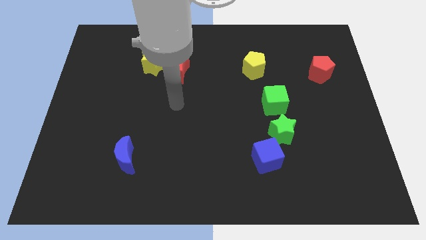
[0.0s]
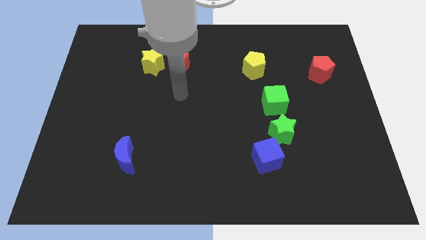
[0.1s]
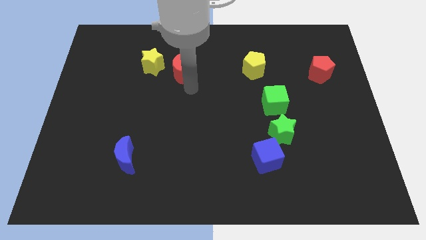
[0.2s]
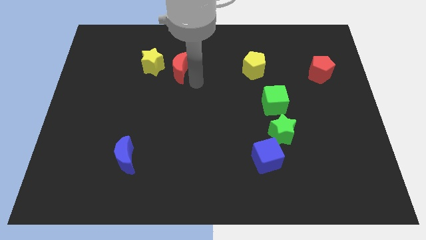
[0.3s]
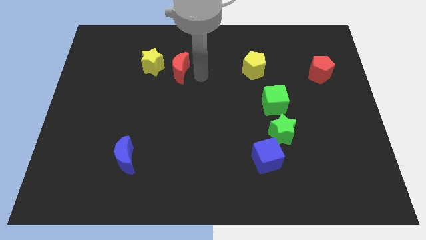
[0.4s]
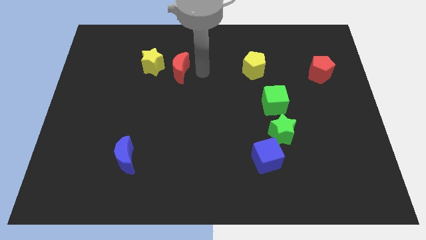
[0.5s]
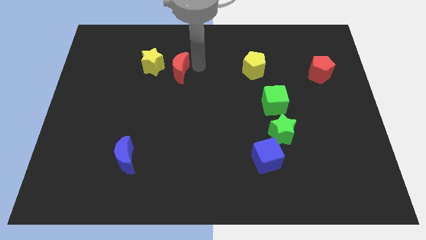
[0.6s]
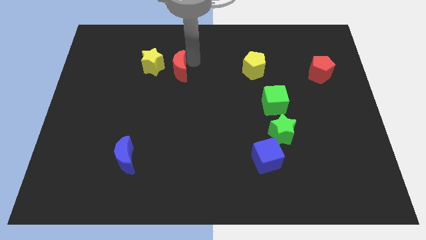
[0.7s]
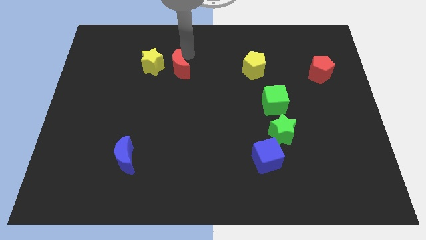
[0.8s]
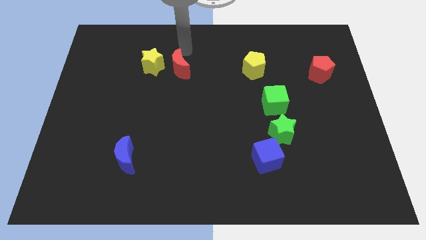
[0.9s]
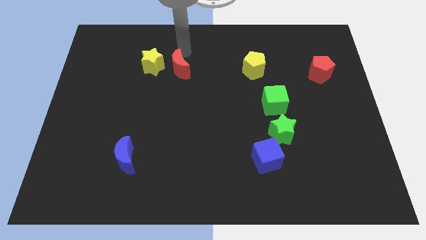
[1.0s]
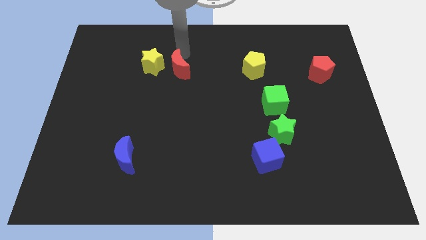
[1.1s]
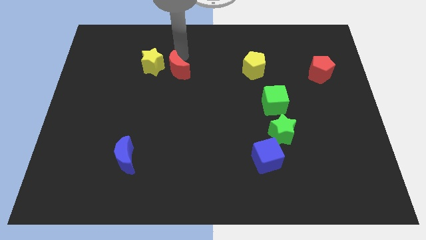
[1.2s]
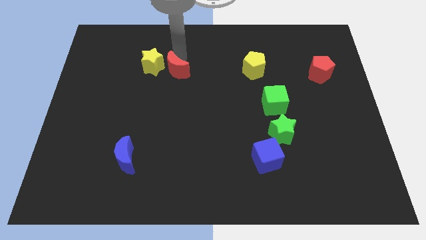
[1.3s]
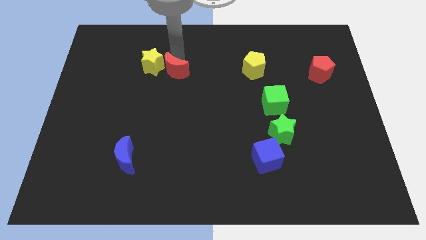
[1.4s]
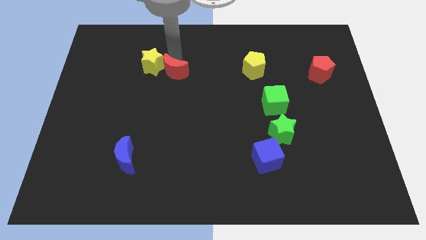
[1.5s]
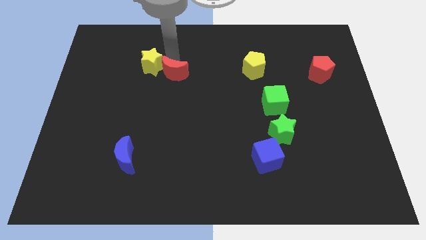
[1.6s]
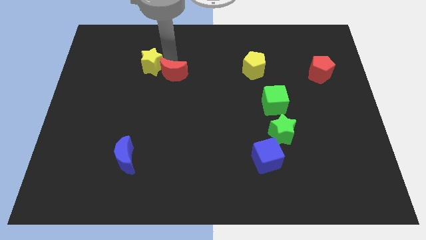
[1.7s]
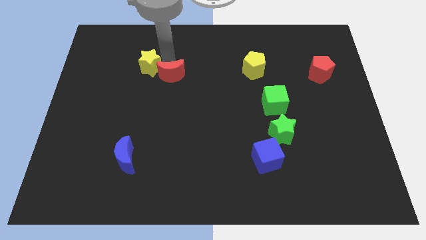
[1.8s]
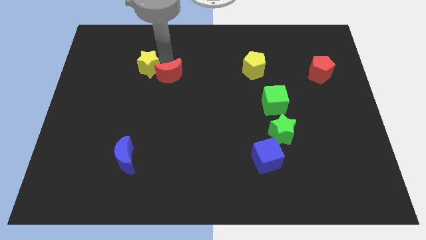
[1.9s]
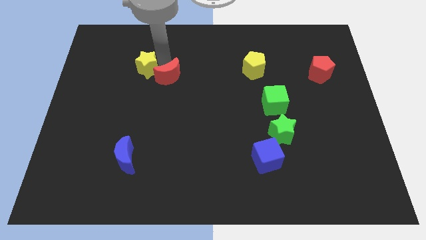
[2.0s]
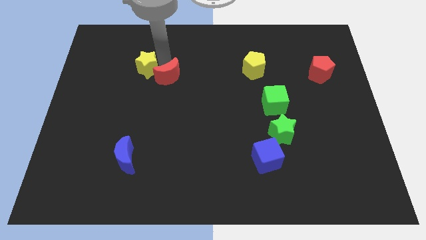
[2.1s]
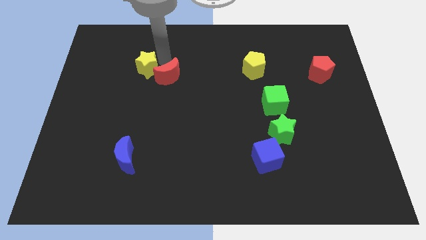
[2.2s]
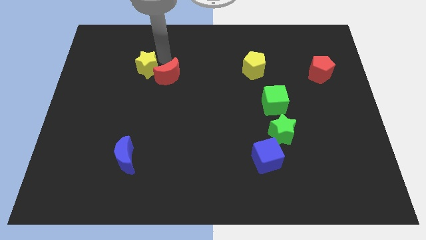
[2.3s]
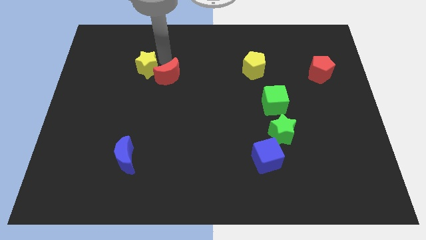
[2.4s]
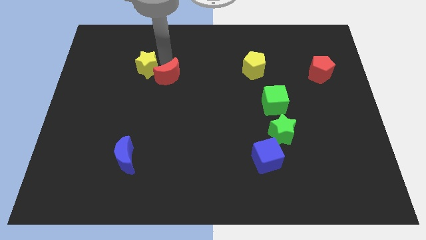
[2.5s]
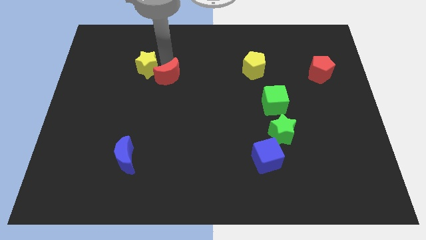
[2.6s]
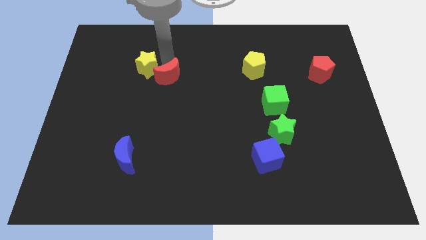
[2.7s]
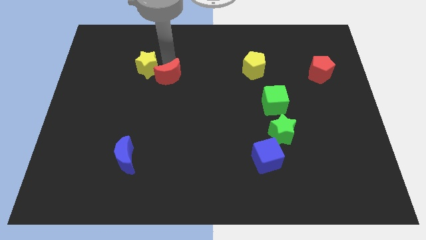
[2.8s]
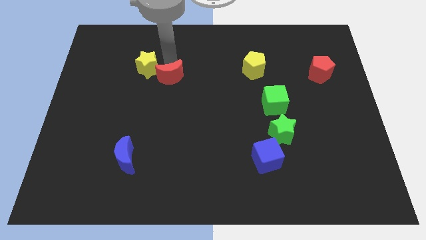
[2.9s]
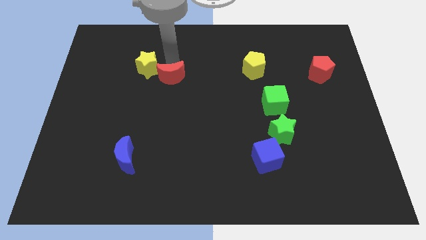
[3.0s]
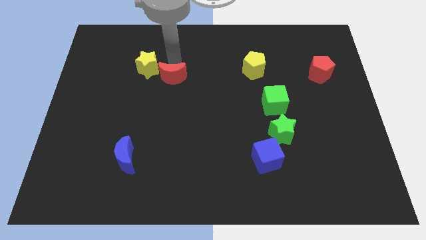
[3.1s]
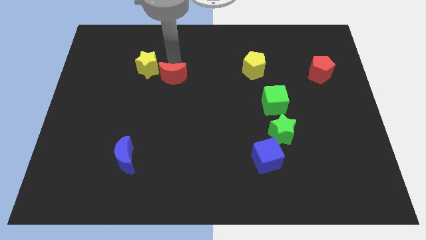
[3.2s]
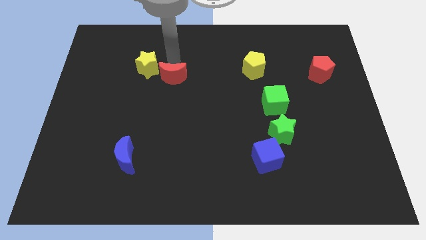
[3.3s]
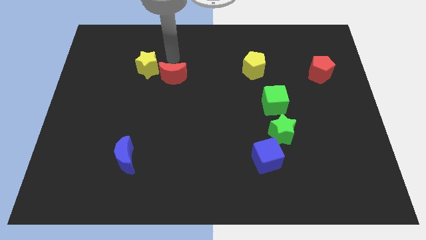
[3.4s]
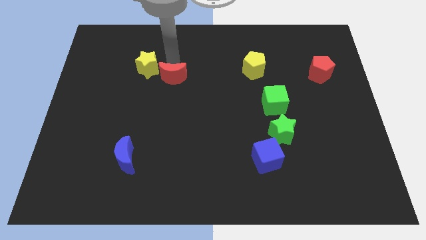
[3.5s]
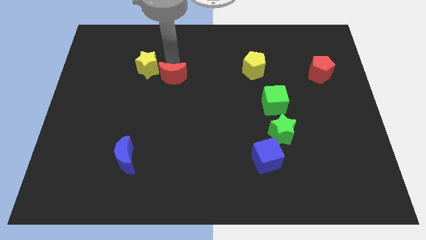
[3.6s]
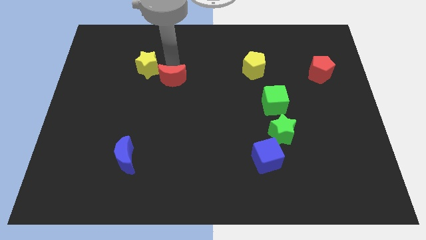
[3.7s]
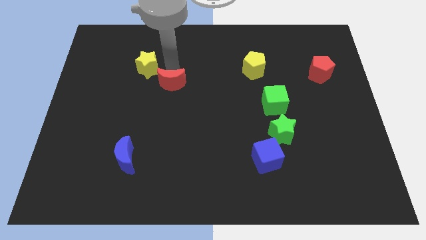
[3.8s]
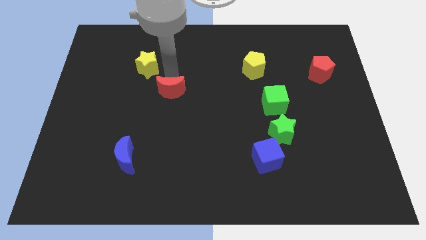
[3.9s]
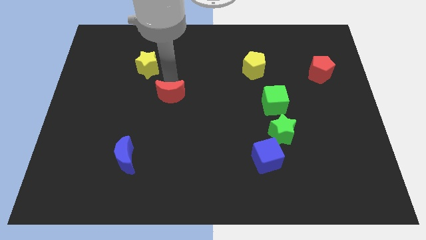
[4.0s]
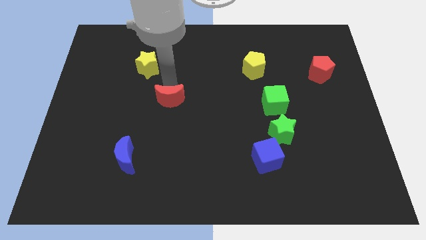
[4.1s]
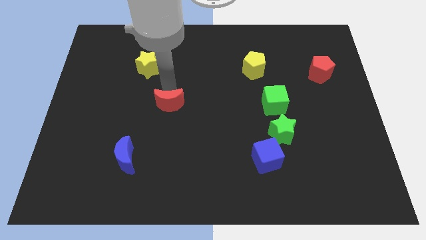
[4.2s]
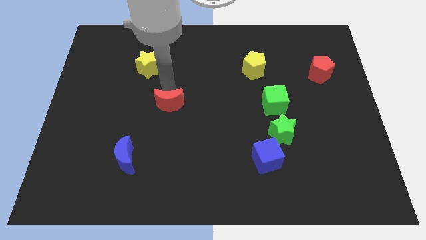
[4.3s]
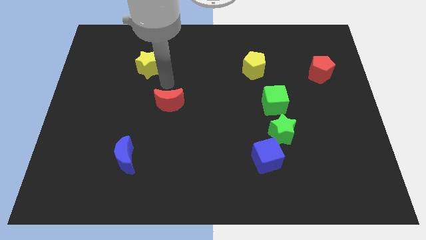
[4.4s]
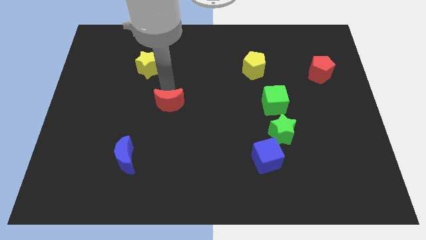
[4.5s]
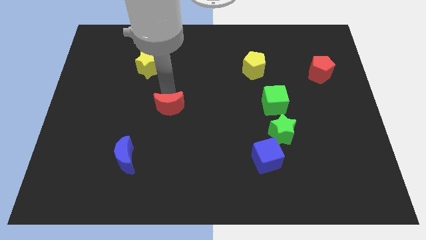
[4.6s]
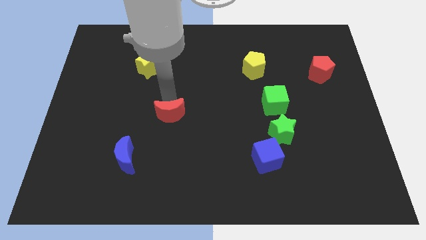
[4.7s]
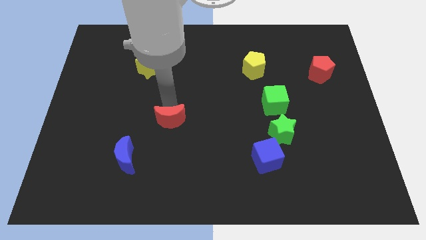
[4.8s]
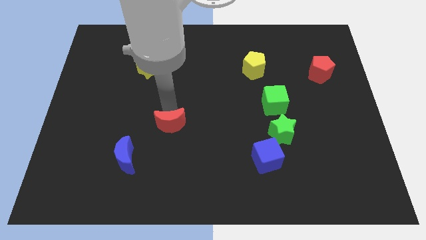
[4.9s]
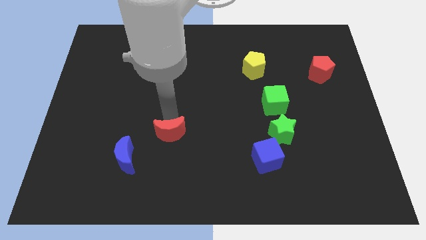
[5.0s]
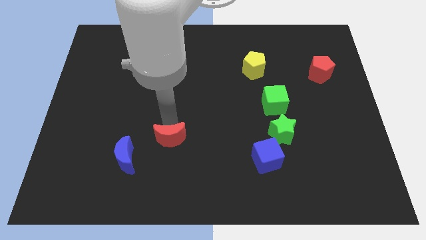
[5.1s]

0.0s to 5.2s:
put the red moon just right of the blue moon
